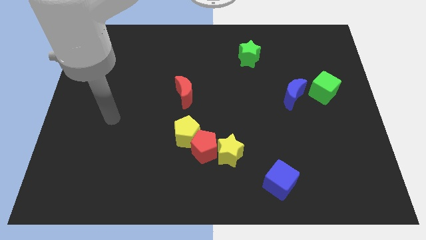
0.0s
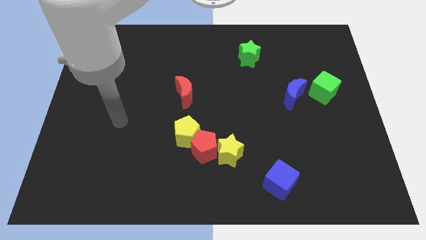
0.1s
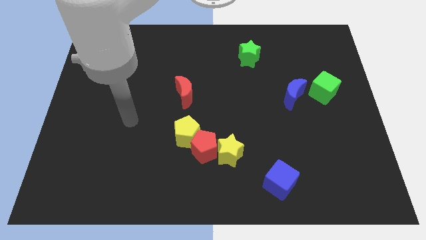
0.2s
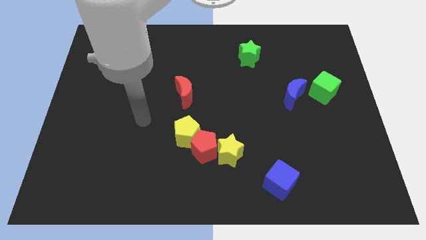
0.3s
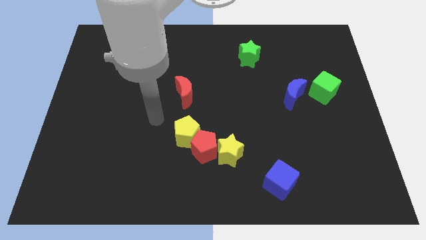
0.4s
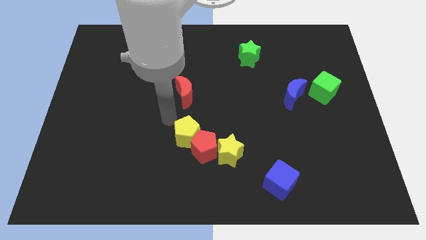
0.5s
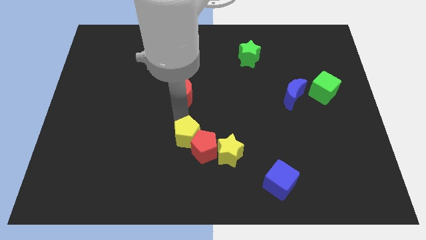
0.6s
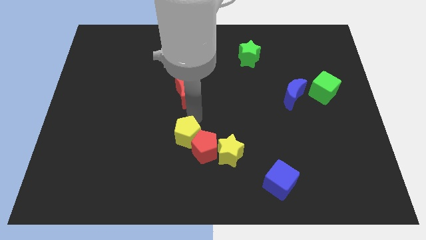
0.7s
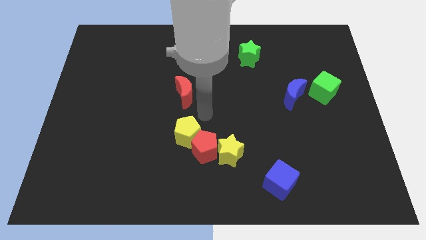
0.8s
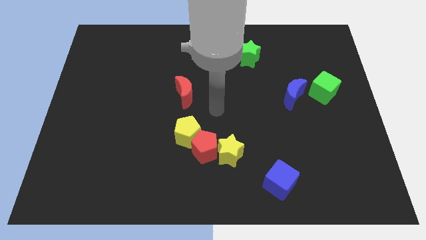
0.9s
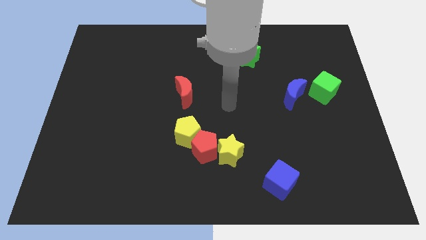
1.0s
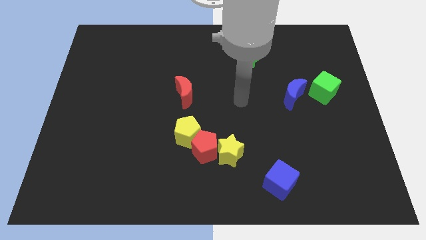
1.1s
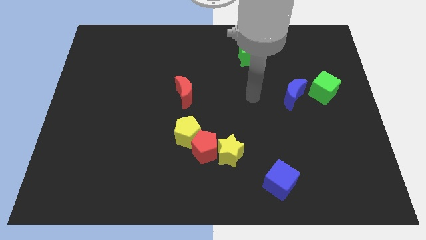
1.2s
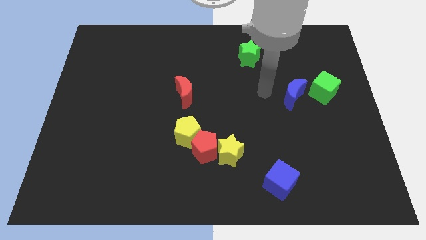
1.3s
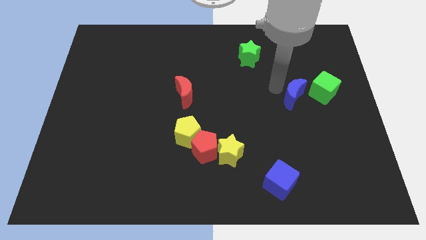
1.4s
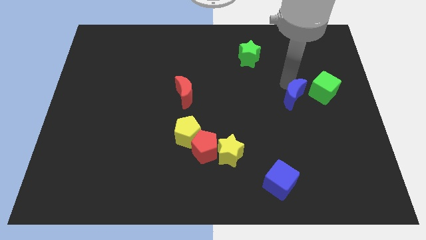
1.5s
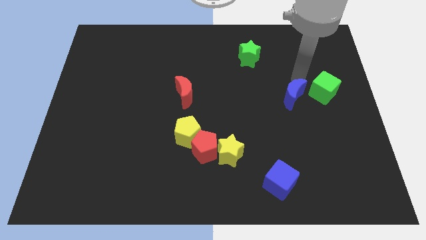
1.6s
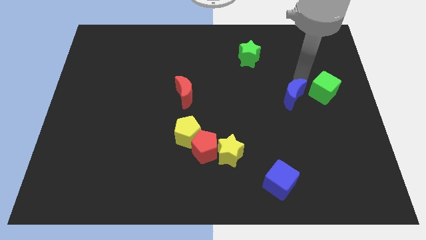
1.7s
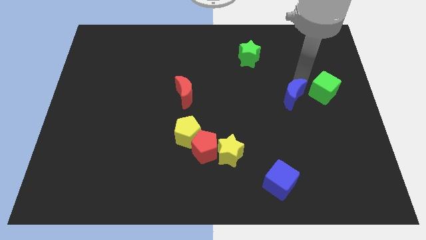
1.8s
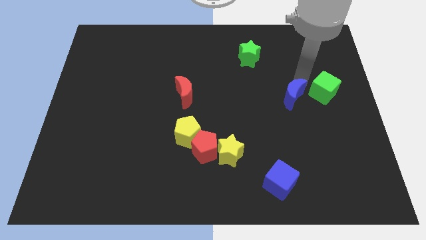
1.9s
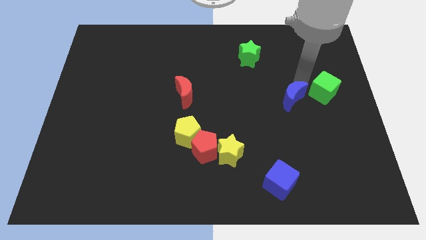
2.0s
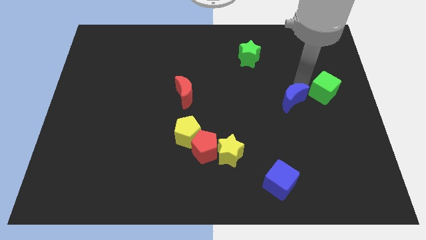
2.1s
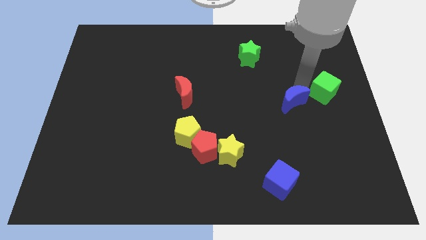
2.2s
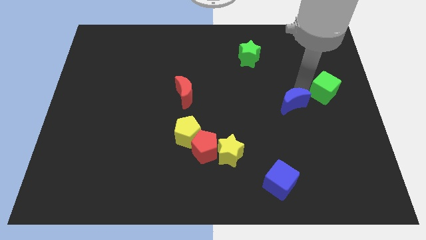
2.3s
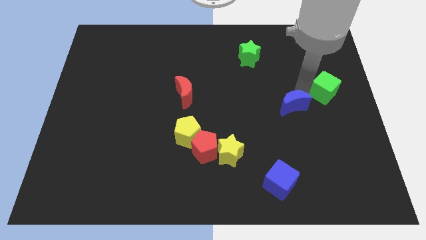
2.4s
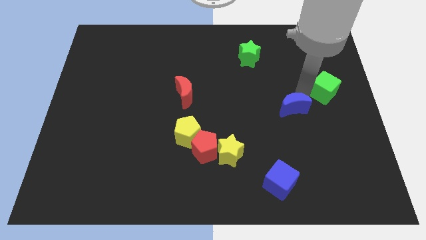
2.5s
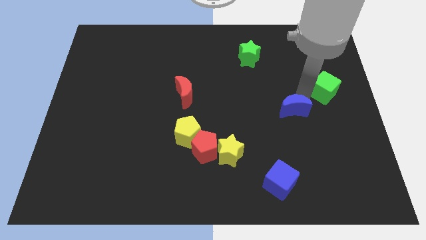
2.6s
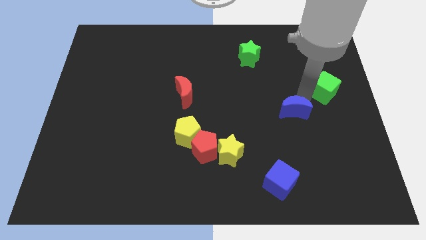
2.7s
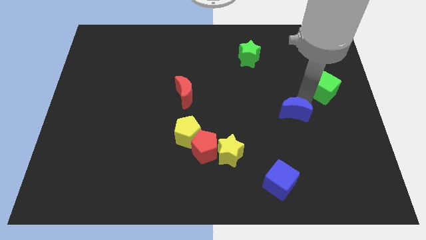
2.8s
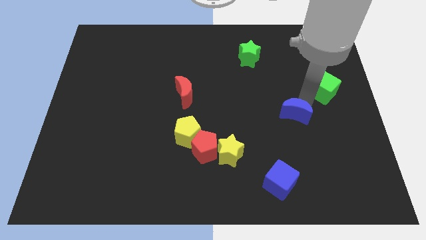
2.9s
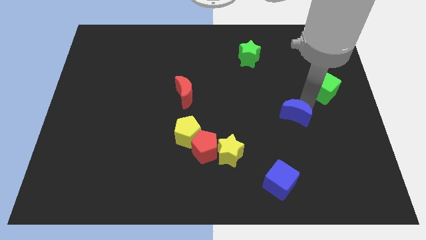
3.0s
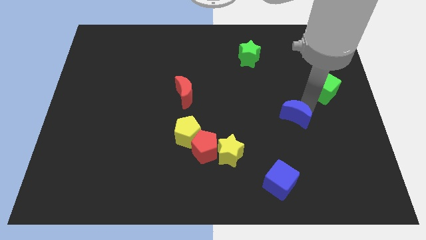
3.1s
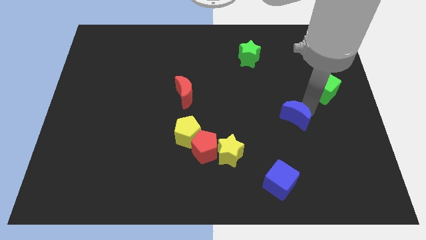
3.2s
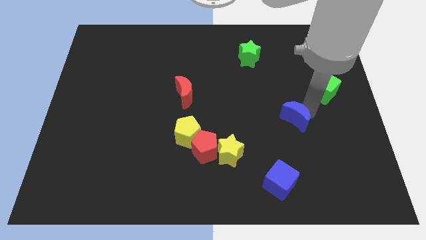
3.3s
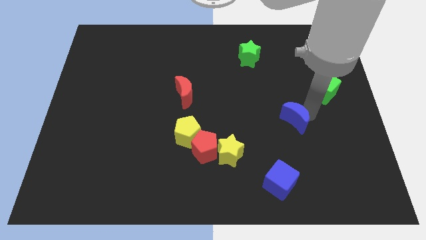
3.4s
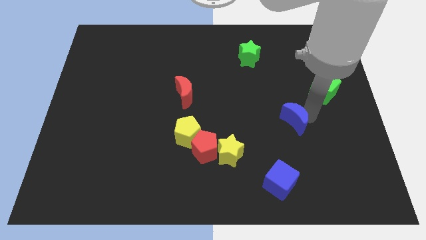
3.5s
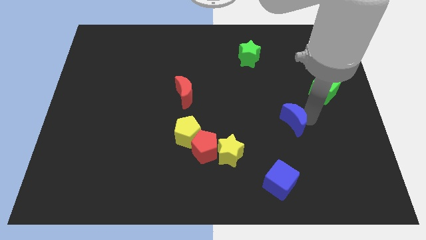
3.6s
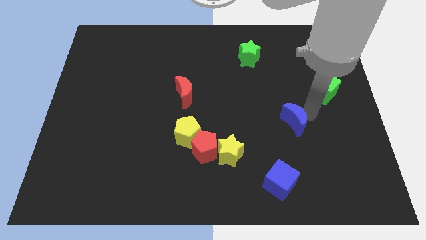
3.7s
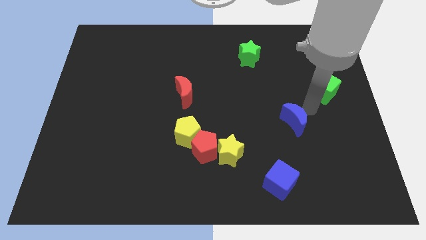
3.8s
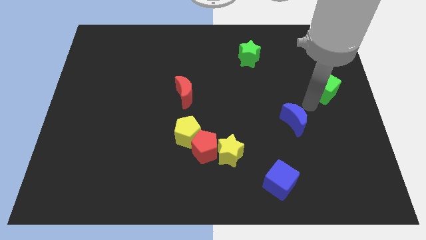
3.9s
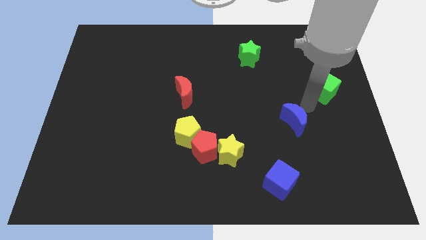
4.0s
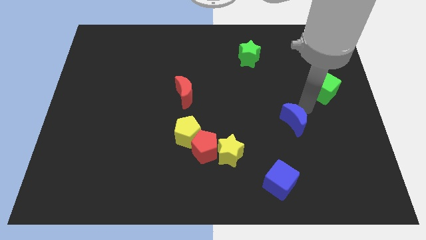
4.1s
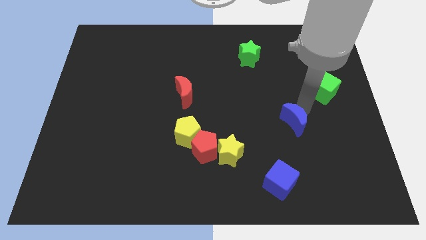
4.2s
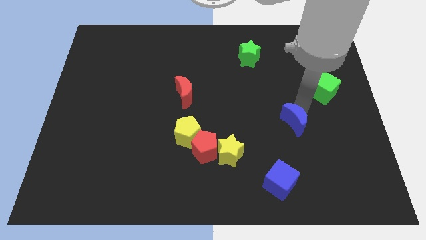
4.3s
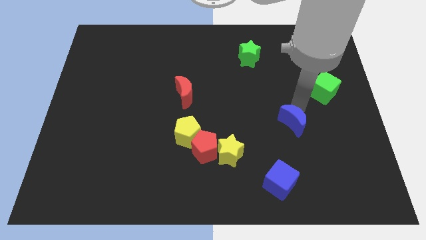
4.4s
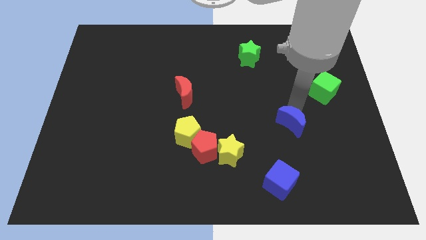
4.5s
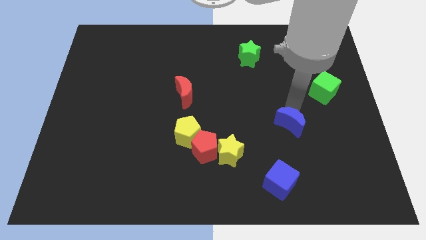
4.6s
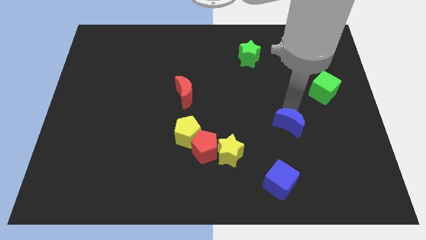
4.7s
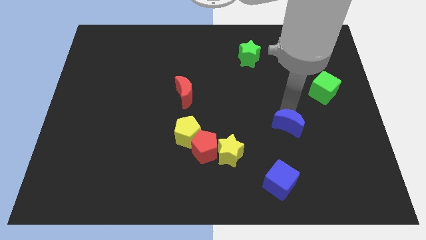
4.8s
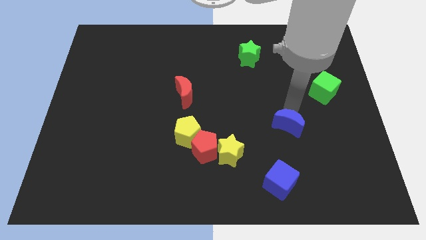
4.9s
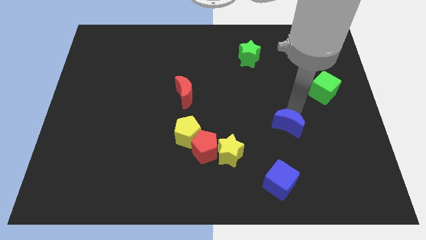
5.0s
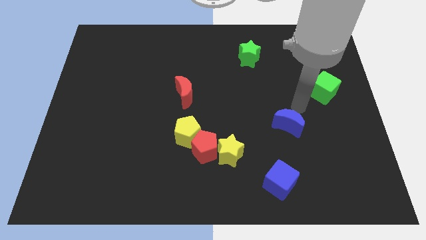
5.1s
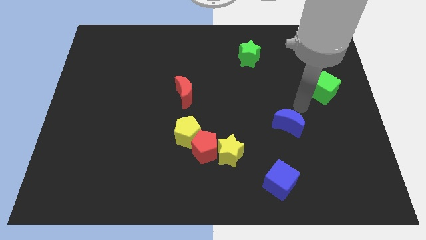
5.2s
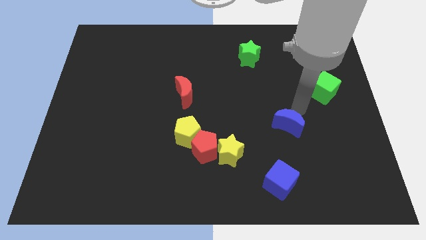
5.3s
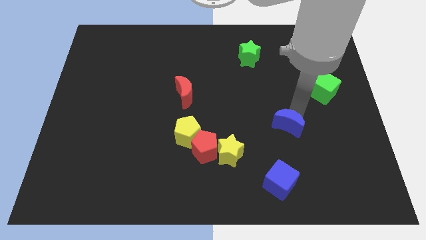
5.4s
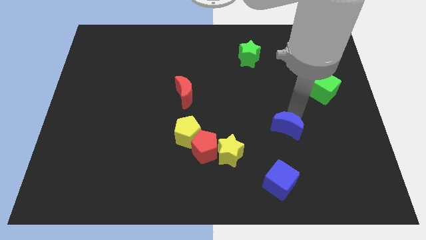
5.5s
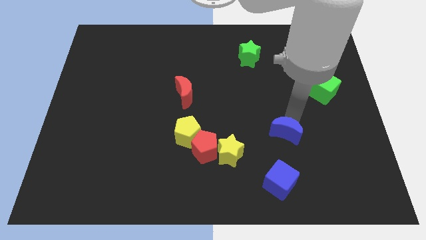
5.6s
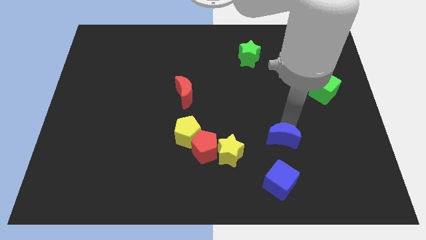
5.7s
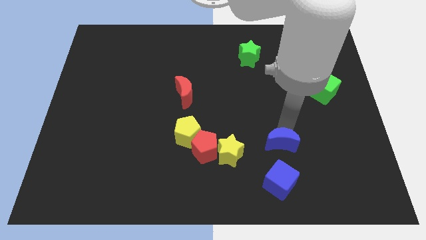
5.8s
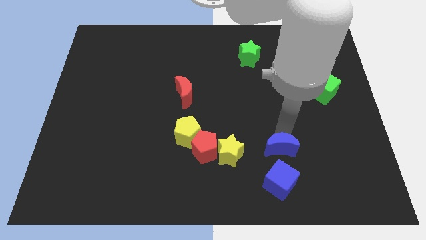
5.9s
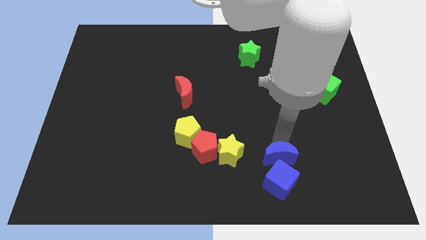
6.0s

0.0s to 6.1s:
move the blue moon close to the blue cube
